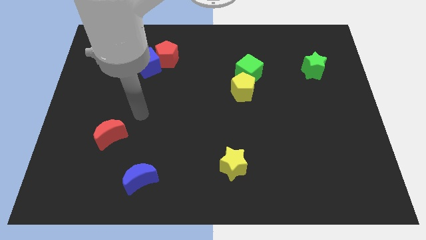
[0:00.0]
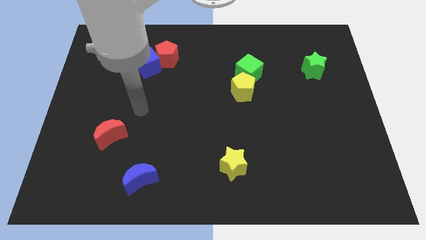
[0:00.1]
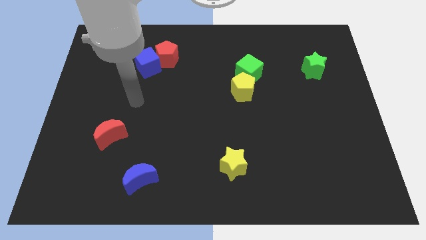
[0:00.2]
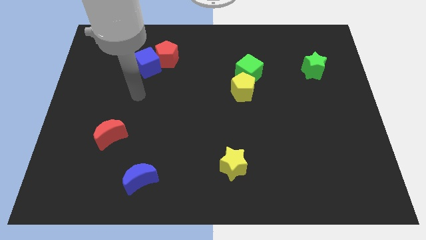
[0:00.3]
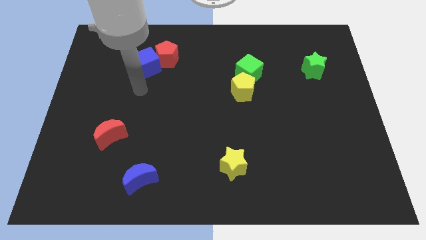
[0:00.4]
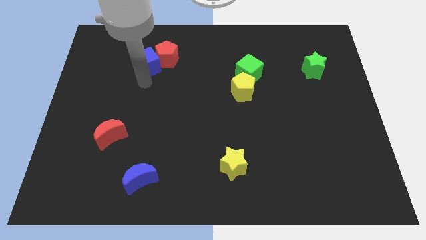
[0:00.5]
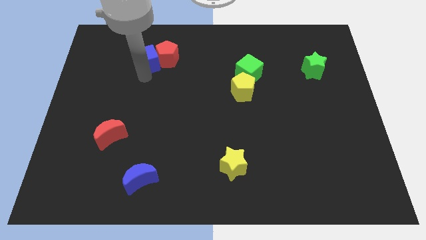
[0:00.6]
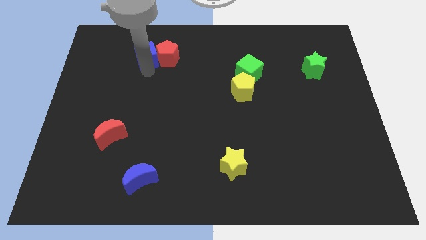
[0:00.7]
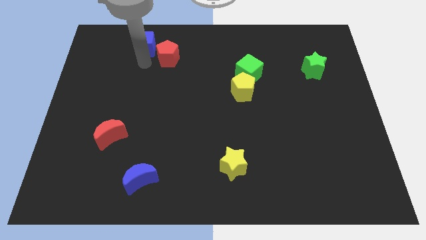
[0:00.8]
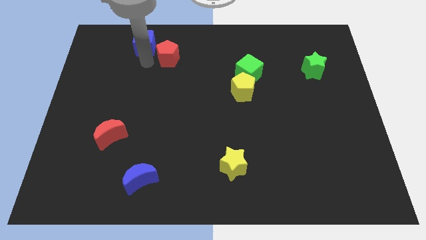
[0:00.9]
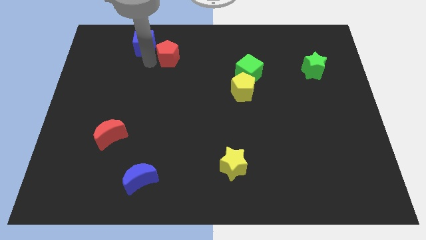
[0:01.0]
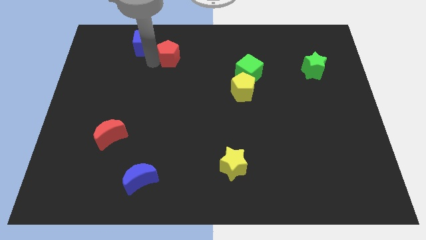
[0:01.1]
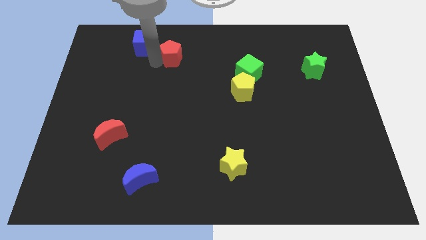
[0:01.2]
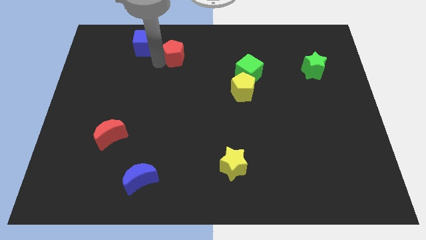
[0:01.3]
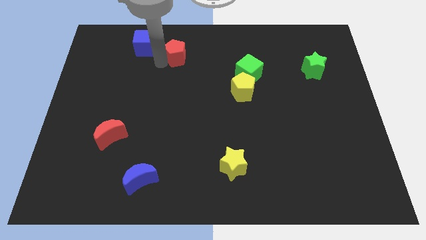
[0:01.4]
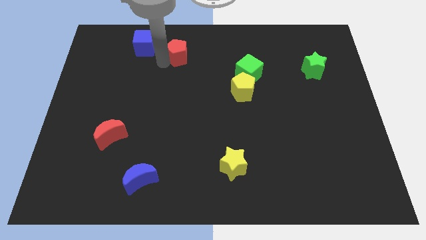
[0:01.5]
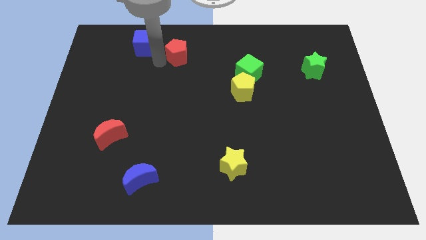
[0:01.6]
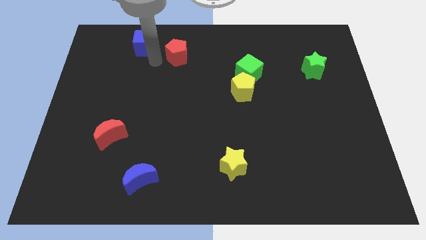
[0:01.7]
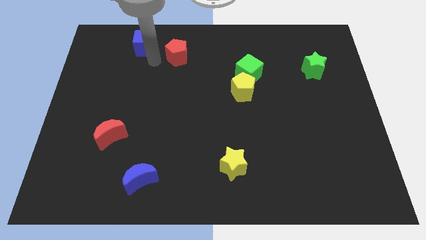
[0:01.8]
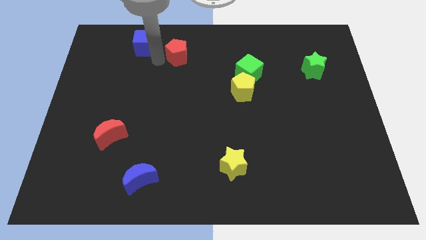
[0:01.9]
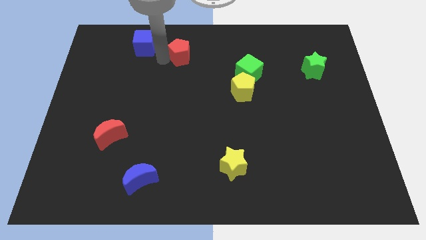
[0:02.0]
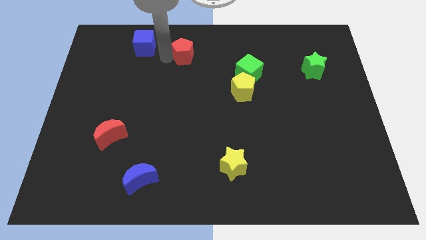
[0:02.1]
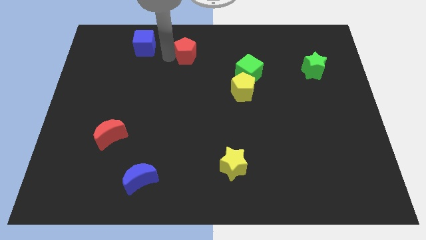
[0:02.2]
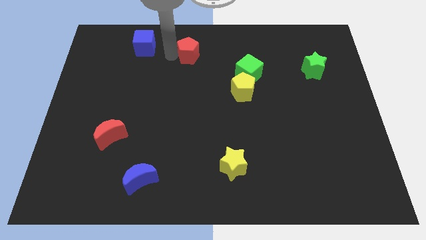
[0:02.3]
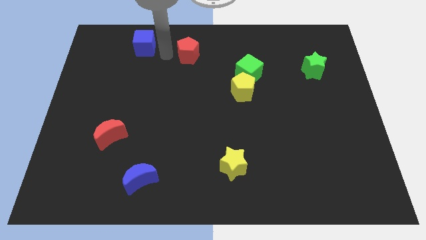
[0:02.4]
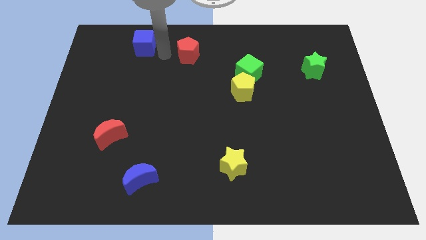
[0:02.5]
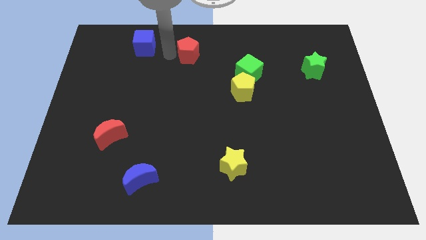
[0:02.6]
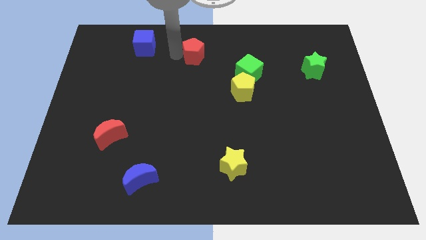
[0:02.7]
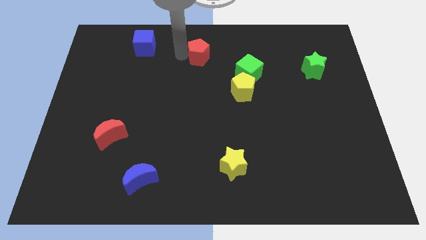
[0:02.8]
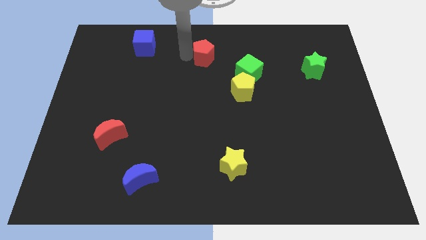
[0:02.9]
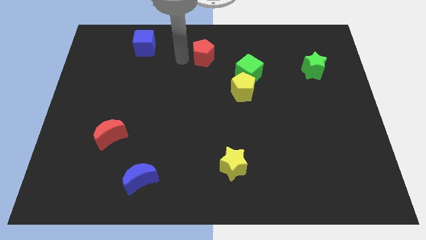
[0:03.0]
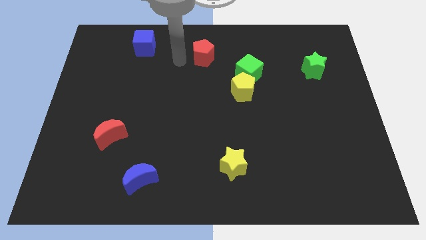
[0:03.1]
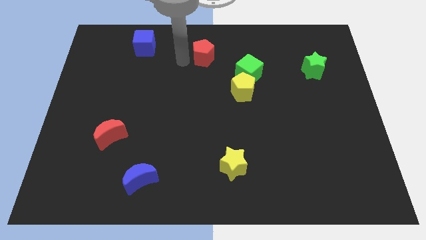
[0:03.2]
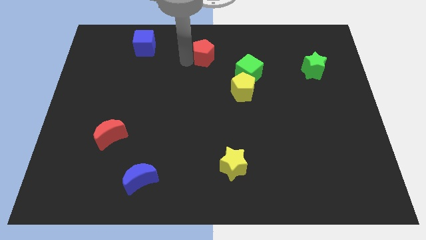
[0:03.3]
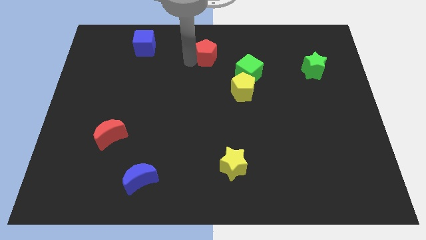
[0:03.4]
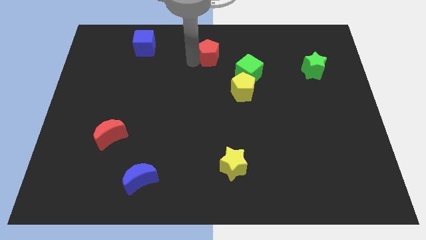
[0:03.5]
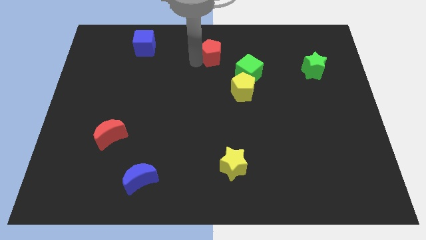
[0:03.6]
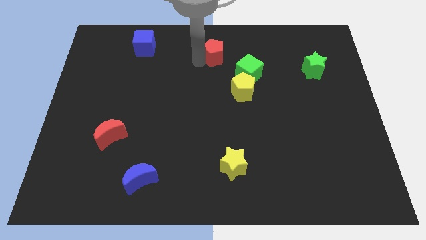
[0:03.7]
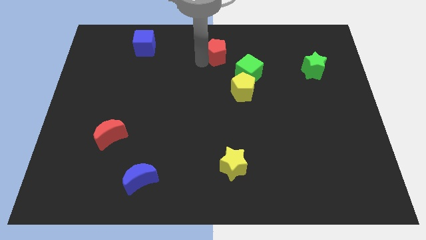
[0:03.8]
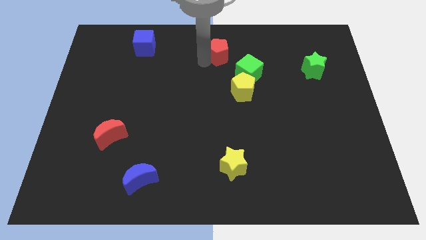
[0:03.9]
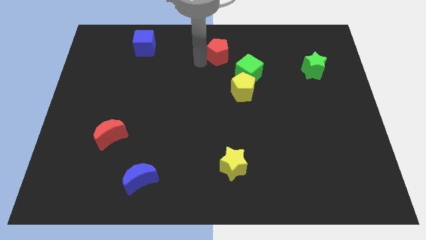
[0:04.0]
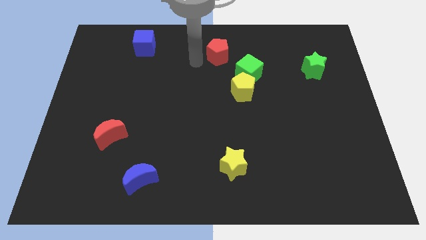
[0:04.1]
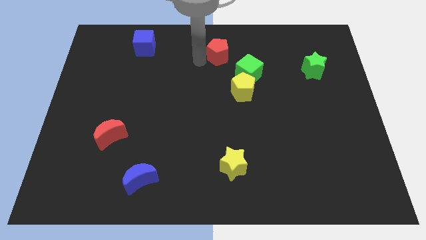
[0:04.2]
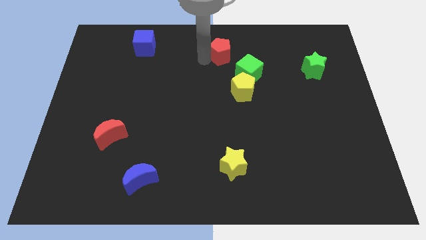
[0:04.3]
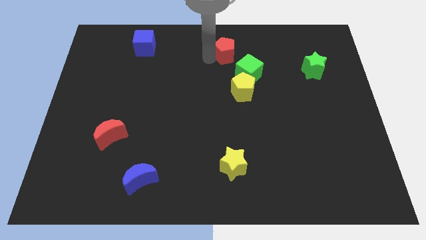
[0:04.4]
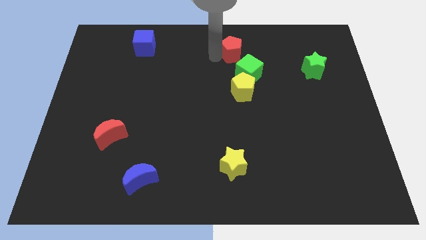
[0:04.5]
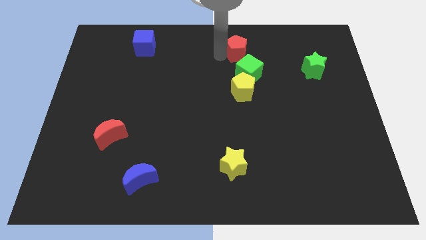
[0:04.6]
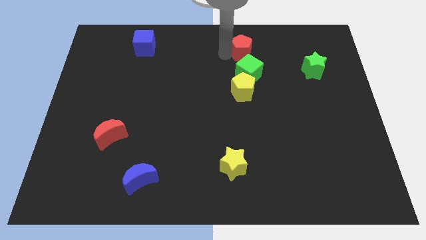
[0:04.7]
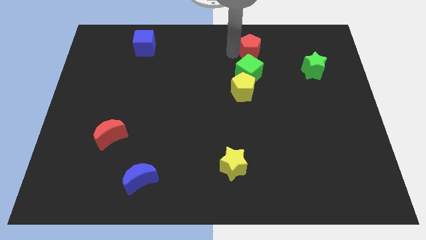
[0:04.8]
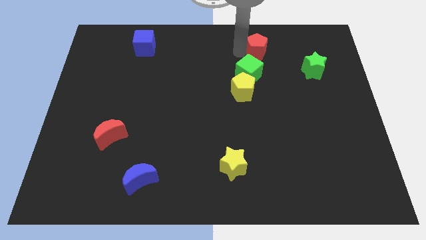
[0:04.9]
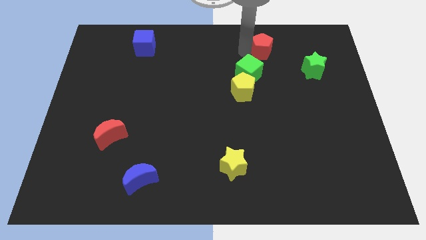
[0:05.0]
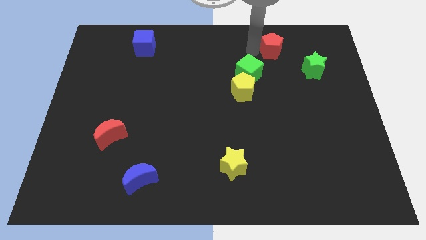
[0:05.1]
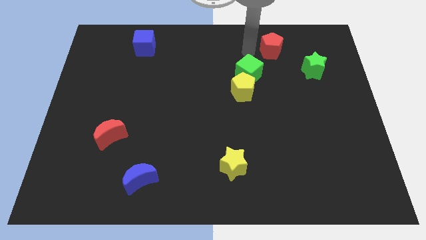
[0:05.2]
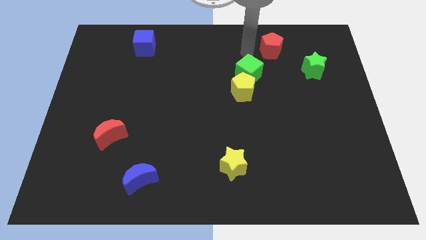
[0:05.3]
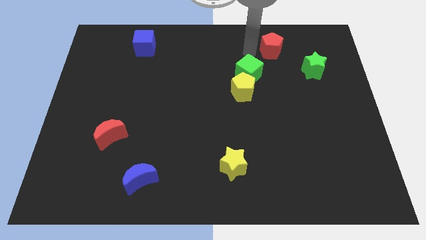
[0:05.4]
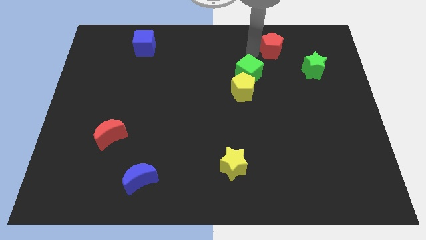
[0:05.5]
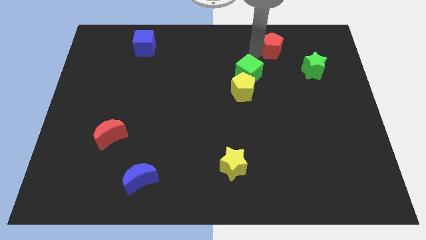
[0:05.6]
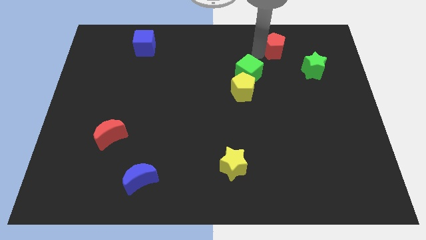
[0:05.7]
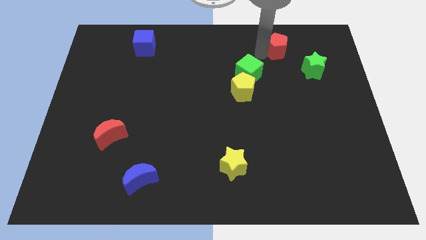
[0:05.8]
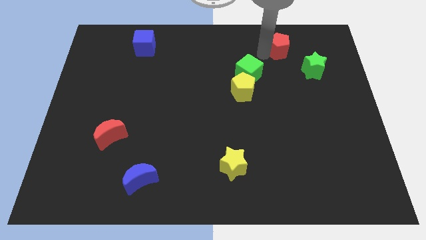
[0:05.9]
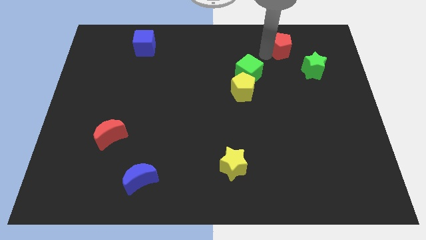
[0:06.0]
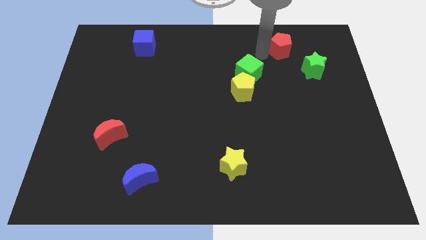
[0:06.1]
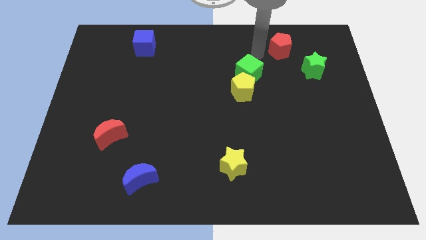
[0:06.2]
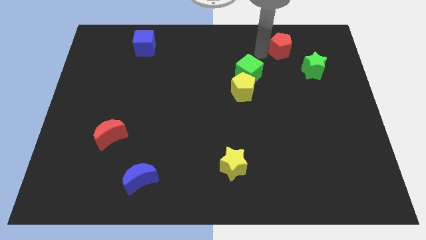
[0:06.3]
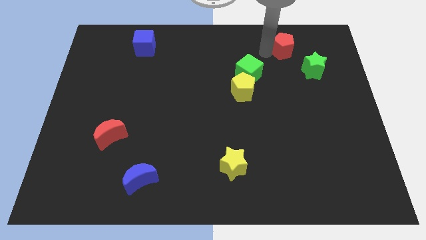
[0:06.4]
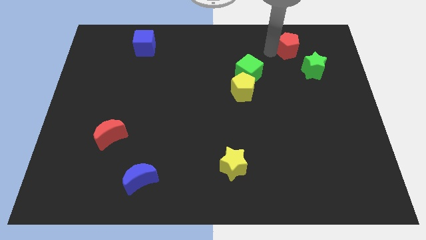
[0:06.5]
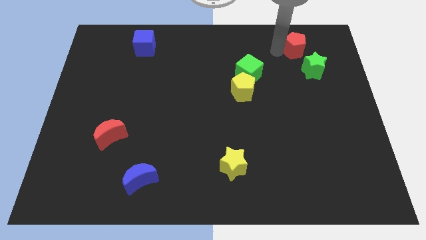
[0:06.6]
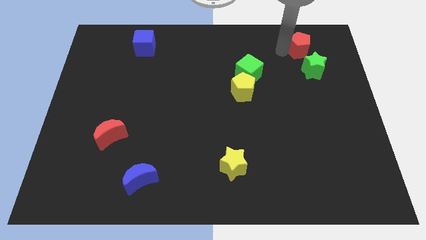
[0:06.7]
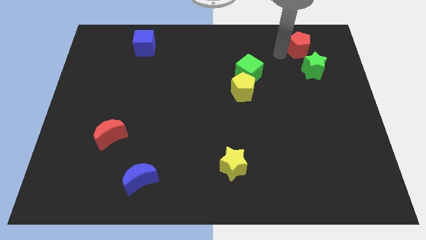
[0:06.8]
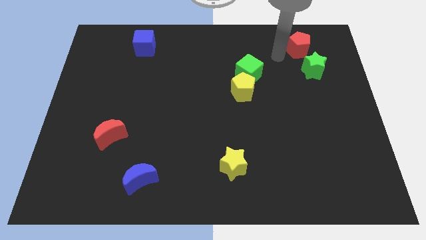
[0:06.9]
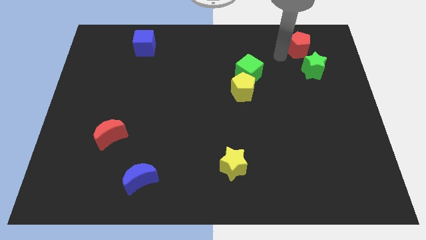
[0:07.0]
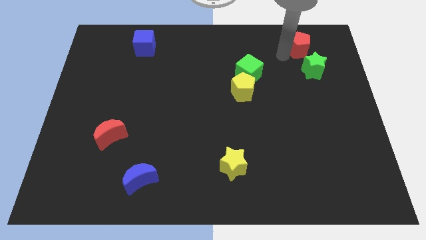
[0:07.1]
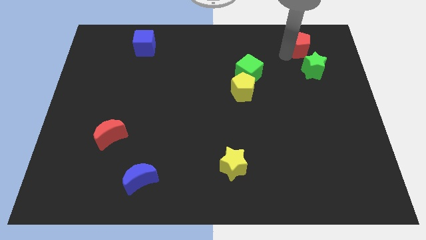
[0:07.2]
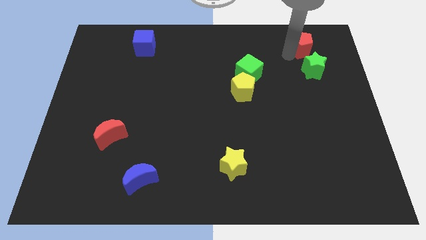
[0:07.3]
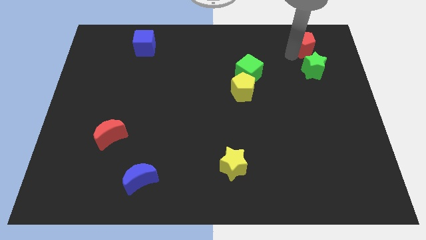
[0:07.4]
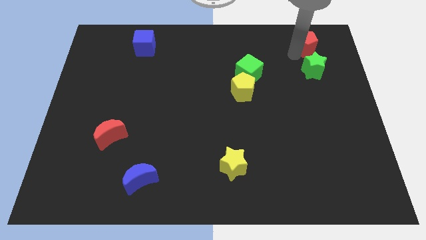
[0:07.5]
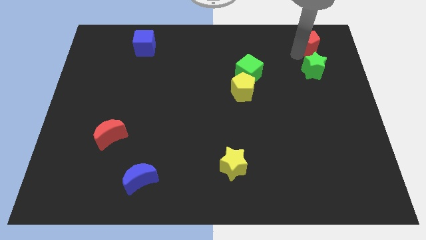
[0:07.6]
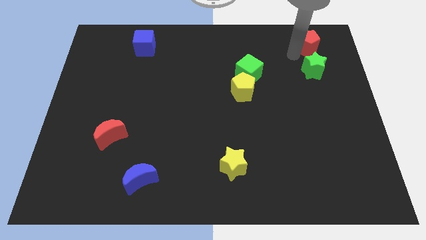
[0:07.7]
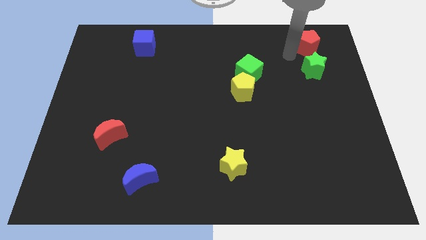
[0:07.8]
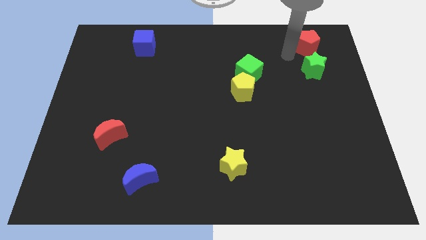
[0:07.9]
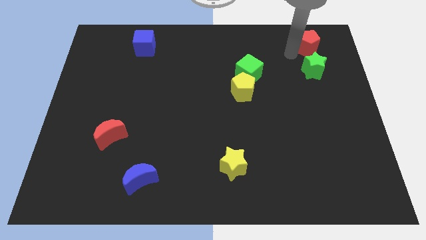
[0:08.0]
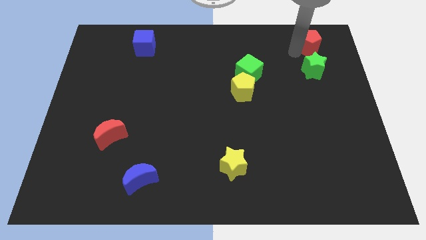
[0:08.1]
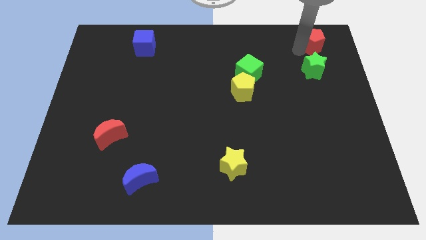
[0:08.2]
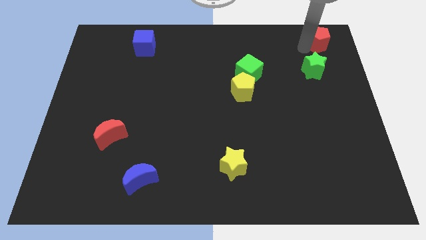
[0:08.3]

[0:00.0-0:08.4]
slide the red pentagon to the top right corner
